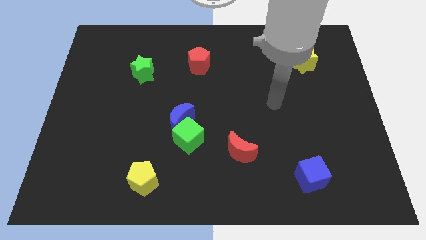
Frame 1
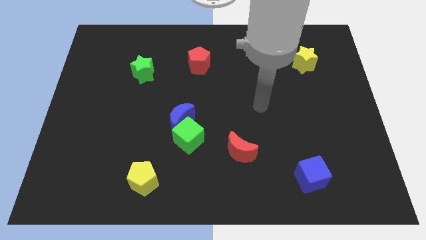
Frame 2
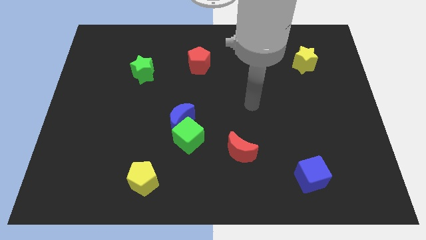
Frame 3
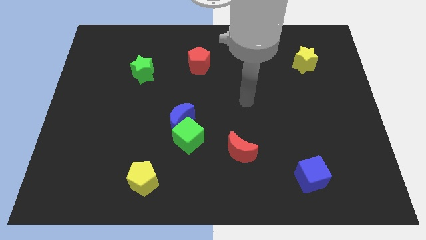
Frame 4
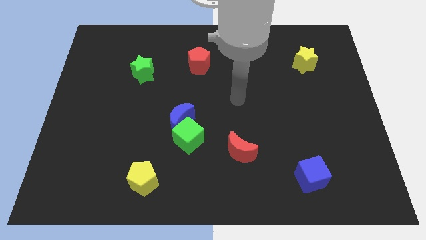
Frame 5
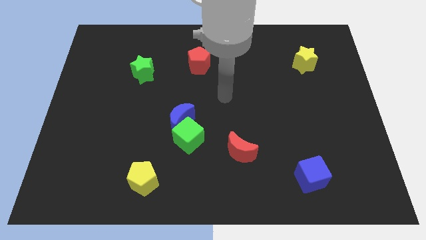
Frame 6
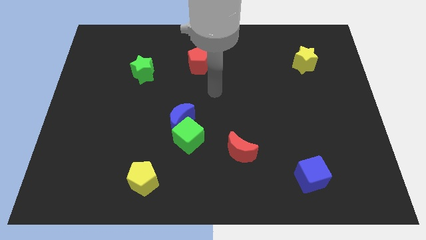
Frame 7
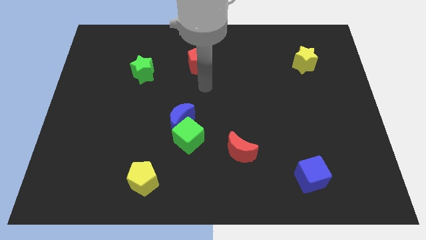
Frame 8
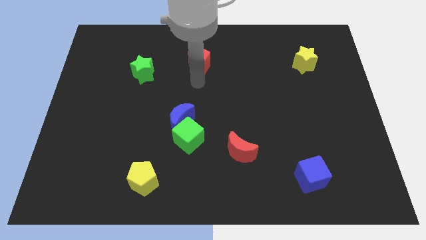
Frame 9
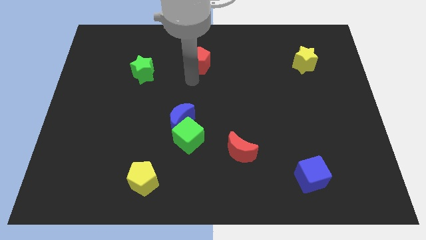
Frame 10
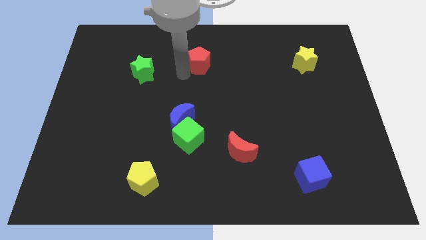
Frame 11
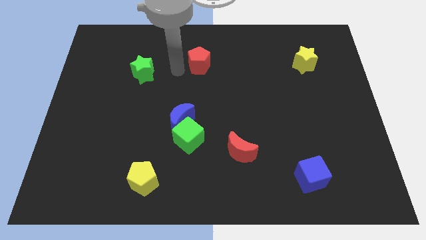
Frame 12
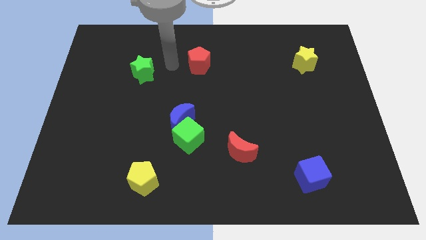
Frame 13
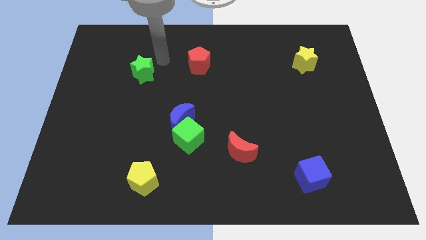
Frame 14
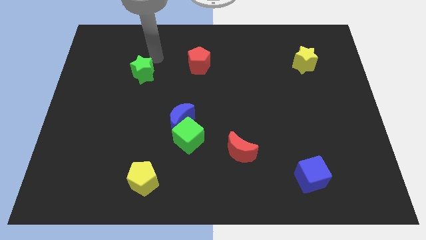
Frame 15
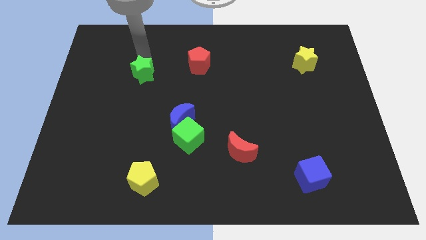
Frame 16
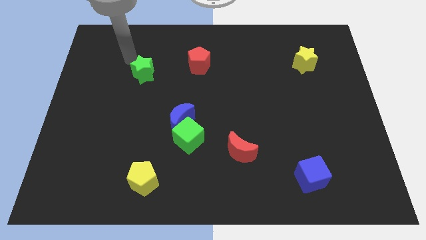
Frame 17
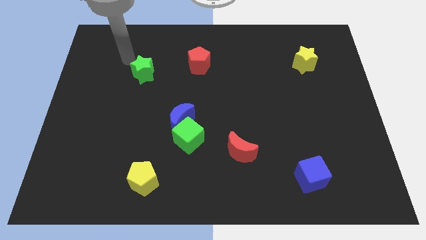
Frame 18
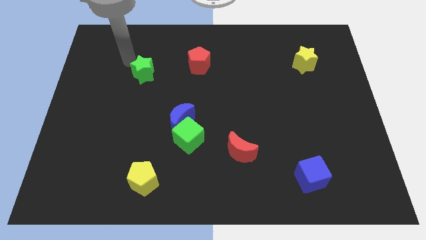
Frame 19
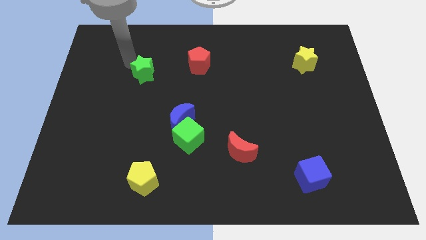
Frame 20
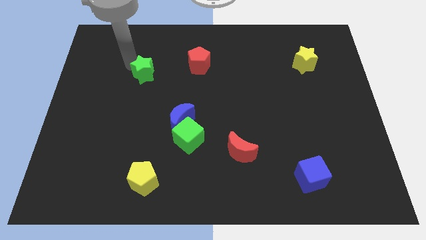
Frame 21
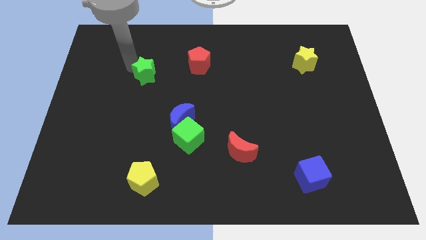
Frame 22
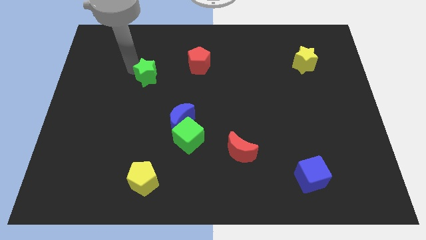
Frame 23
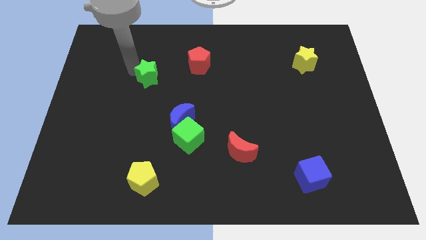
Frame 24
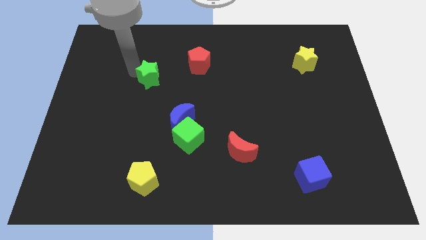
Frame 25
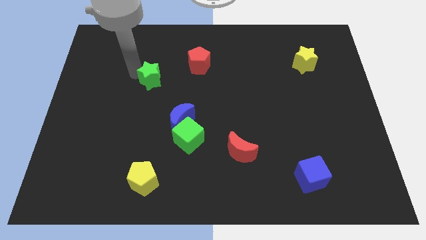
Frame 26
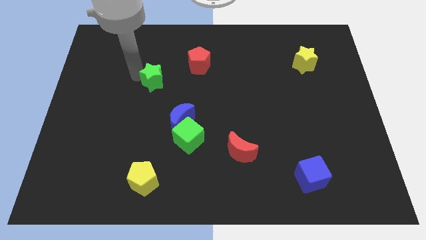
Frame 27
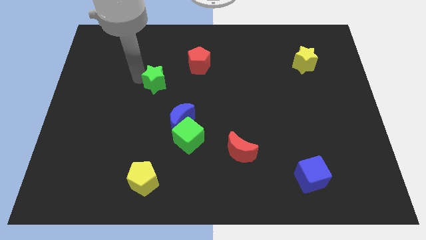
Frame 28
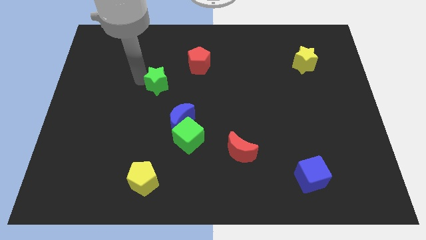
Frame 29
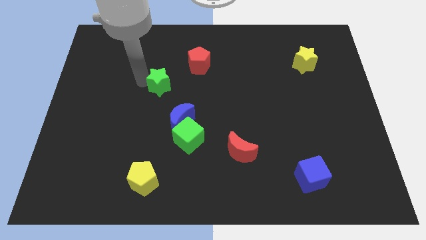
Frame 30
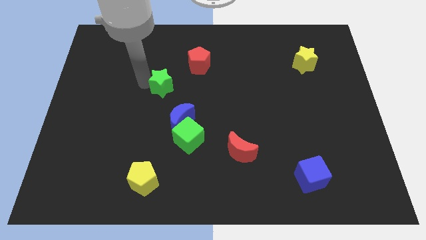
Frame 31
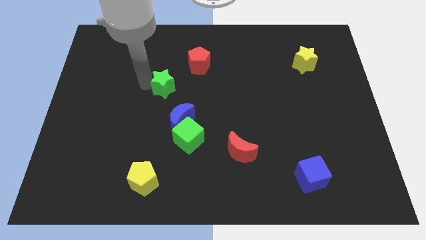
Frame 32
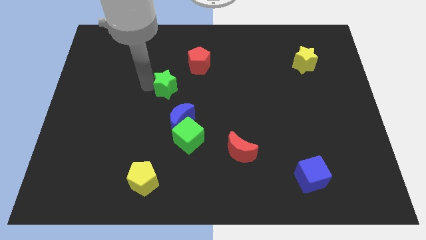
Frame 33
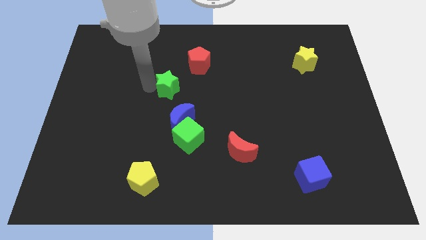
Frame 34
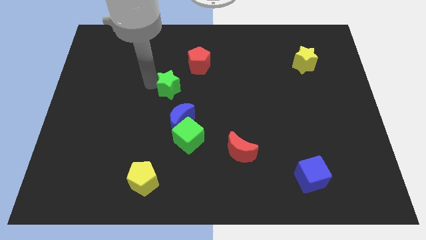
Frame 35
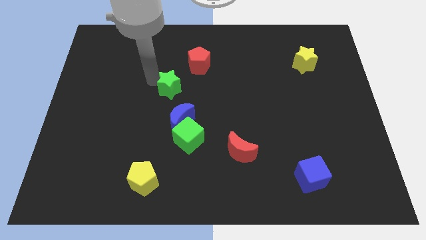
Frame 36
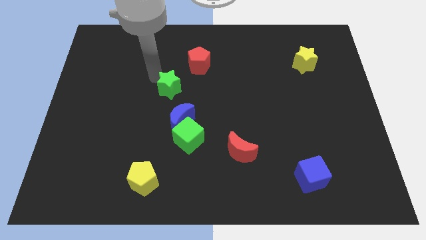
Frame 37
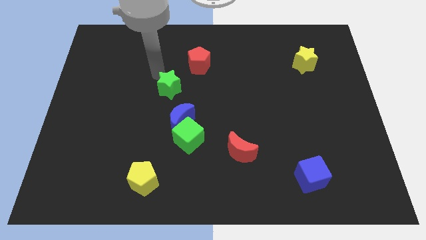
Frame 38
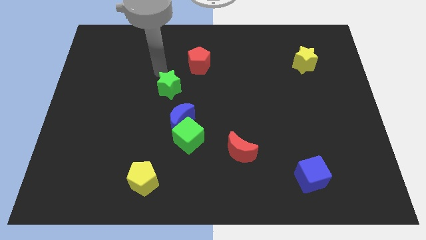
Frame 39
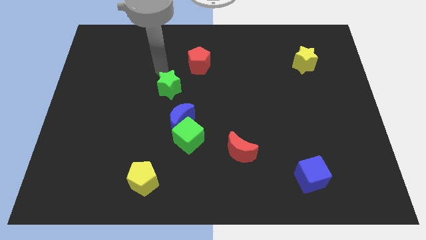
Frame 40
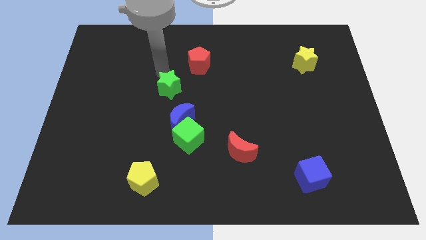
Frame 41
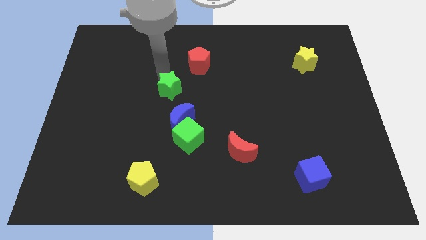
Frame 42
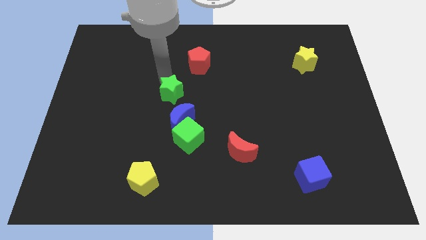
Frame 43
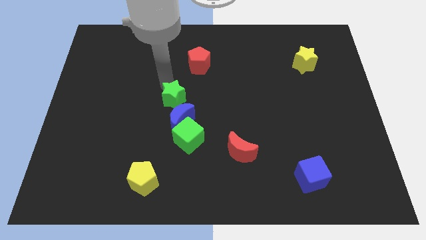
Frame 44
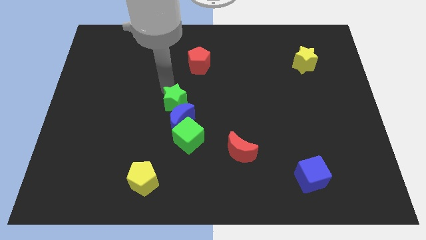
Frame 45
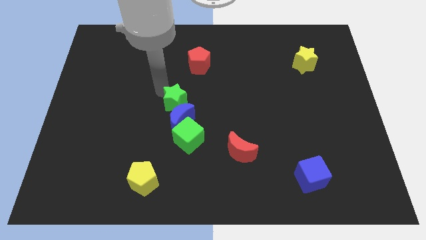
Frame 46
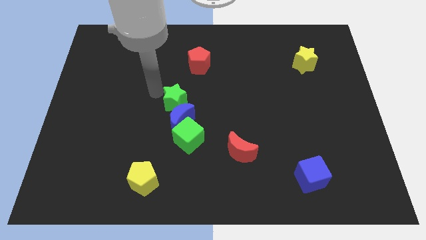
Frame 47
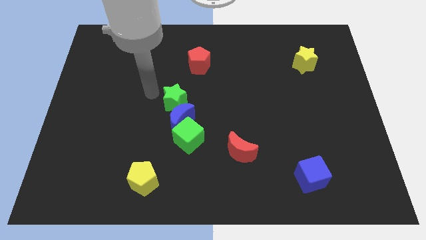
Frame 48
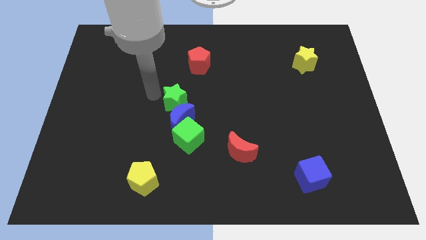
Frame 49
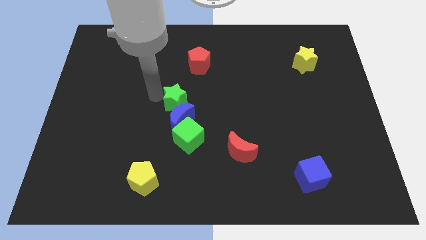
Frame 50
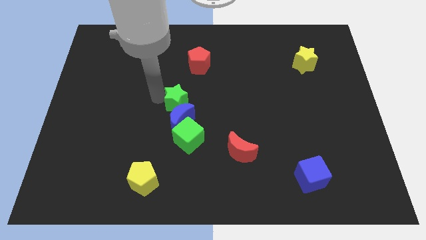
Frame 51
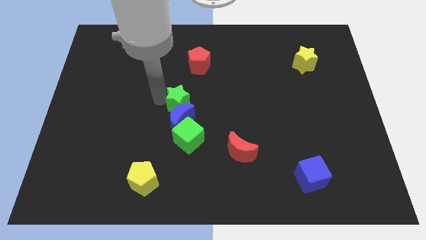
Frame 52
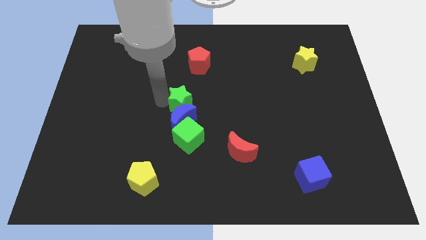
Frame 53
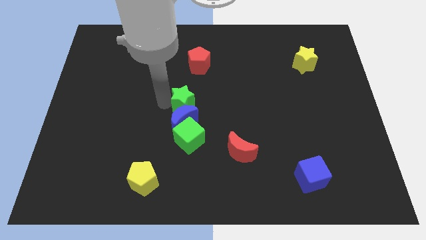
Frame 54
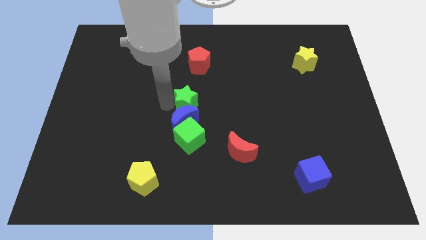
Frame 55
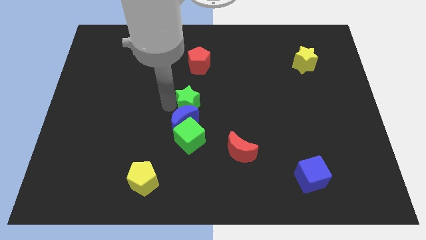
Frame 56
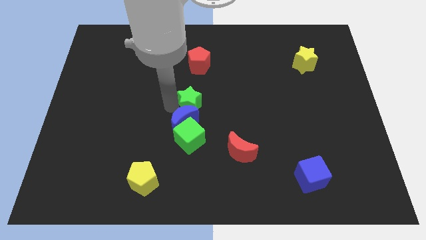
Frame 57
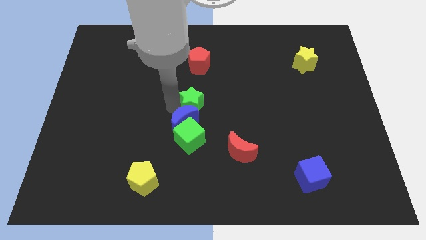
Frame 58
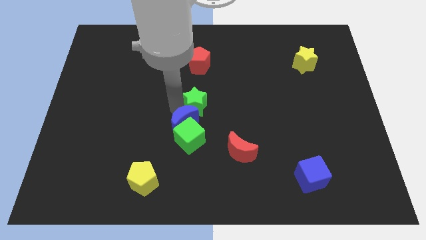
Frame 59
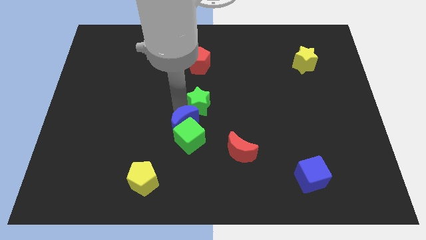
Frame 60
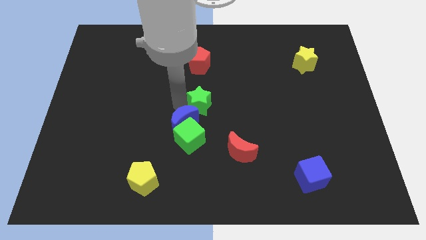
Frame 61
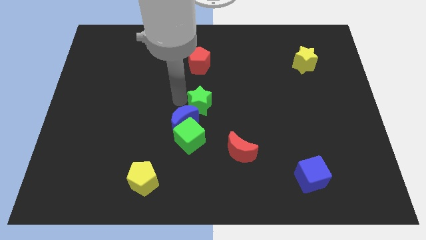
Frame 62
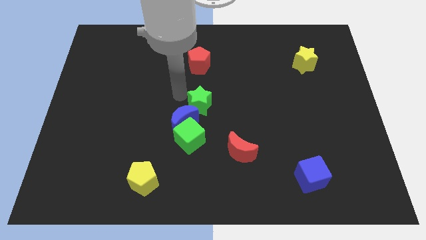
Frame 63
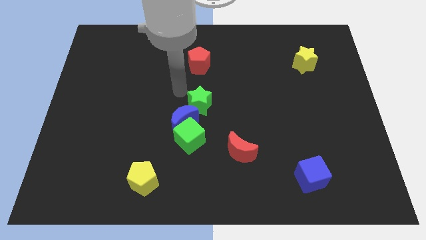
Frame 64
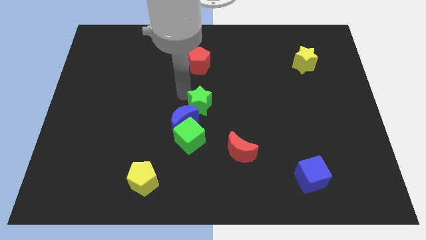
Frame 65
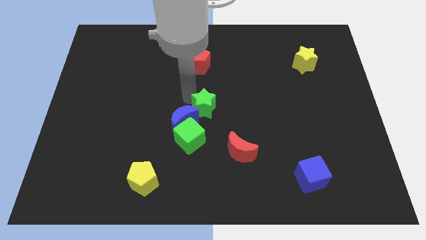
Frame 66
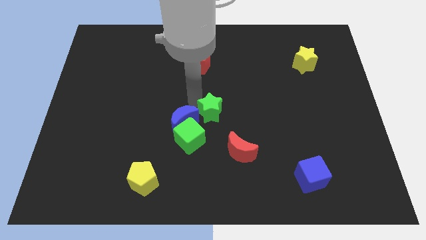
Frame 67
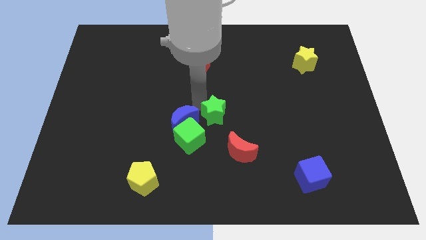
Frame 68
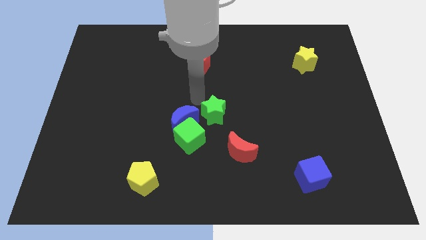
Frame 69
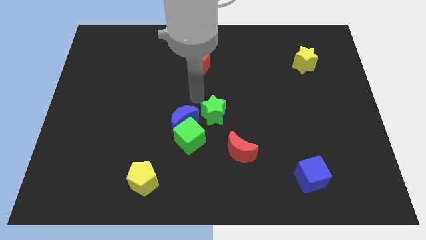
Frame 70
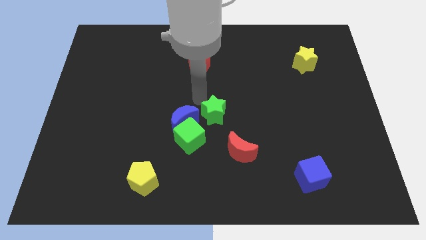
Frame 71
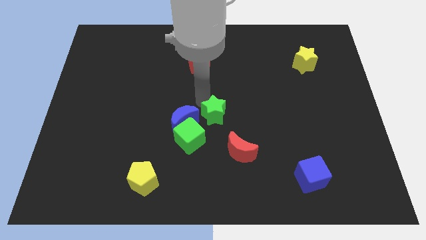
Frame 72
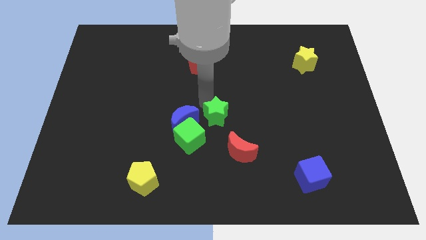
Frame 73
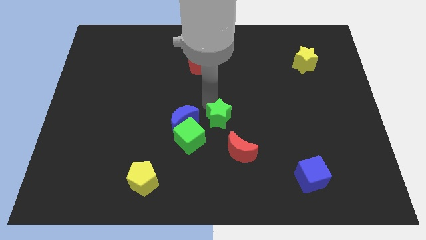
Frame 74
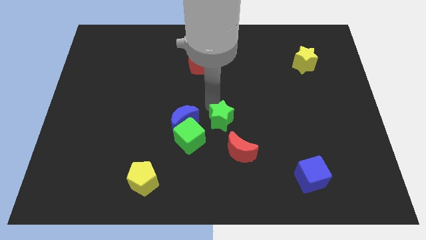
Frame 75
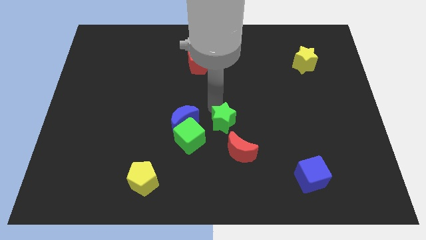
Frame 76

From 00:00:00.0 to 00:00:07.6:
push the green star to the right side of the green cube
